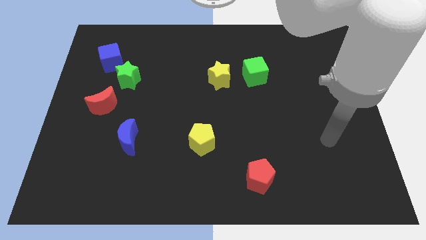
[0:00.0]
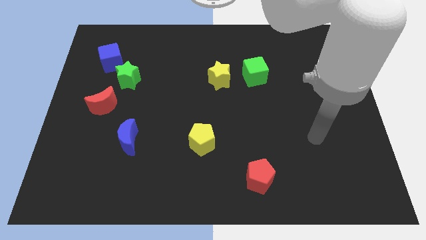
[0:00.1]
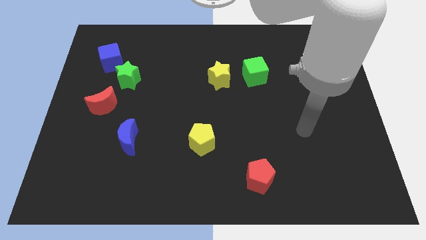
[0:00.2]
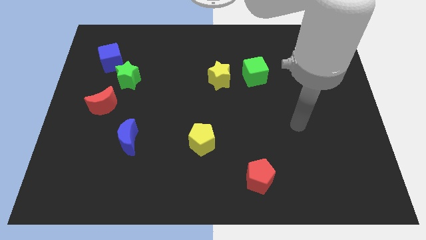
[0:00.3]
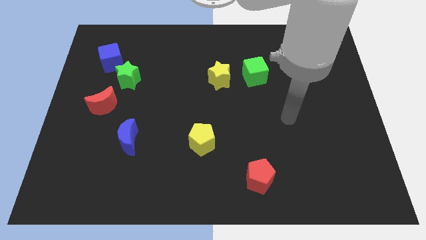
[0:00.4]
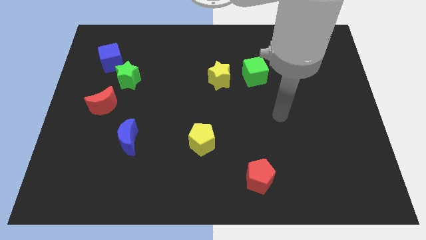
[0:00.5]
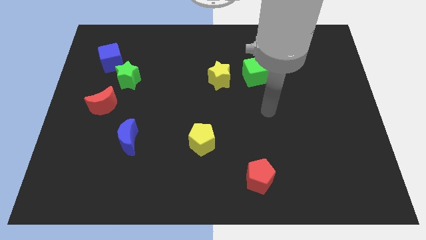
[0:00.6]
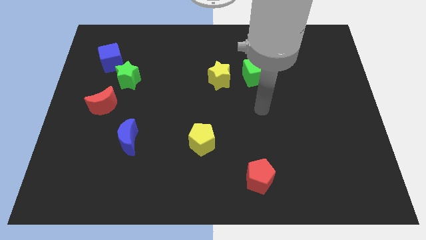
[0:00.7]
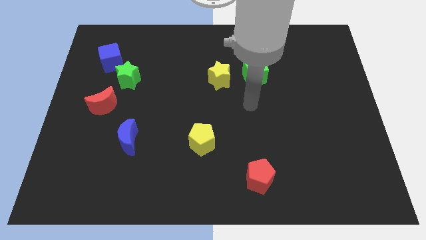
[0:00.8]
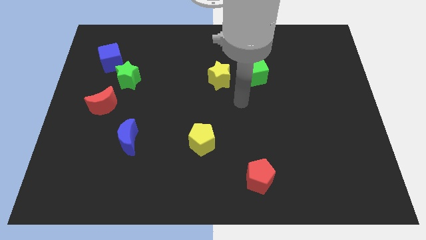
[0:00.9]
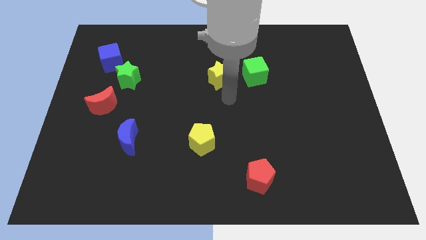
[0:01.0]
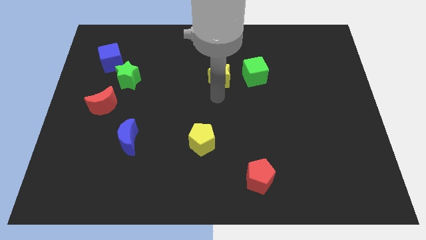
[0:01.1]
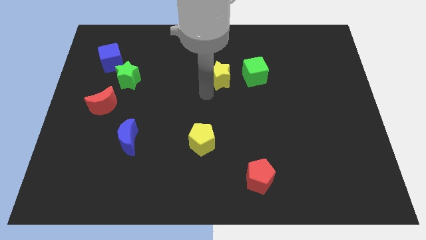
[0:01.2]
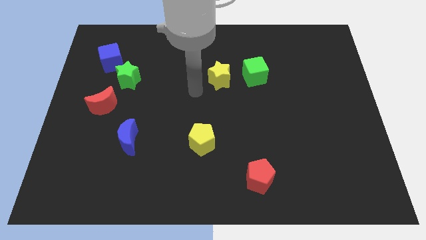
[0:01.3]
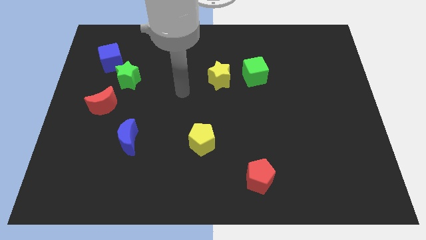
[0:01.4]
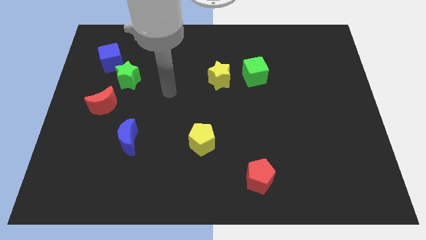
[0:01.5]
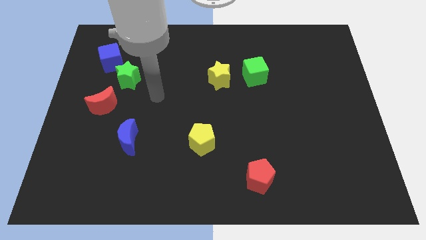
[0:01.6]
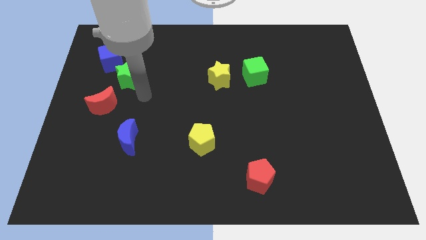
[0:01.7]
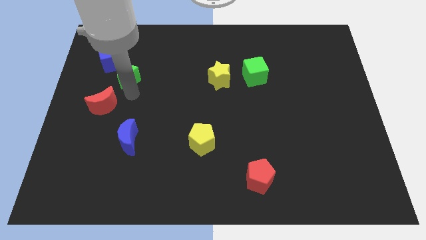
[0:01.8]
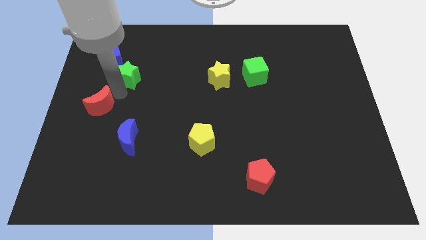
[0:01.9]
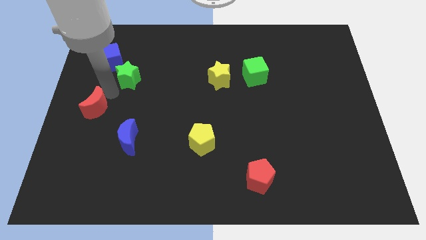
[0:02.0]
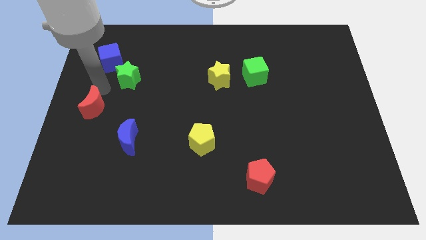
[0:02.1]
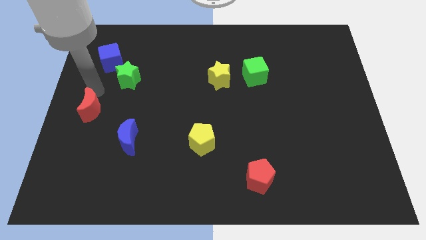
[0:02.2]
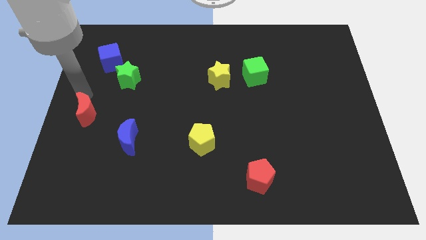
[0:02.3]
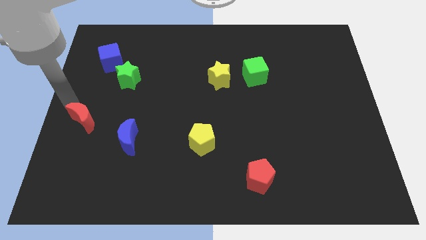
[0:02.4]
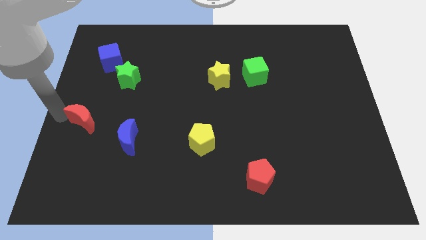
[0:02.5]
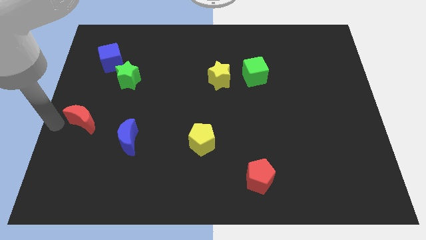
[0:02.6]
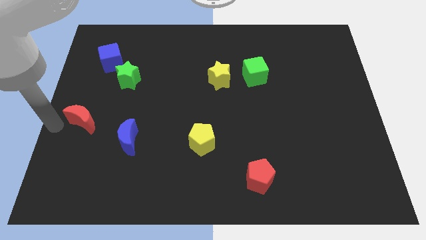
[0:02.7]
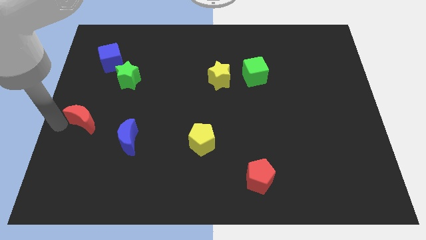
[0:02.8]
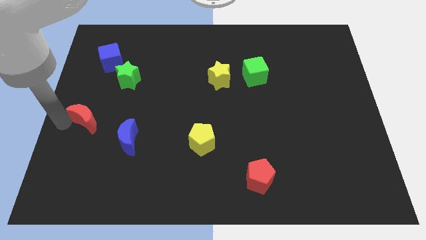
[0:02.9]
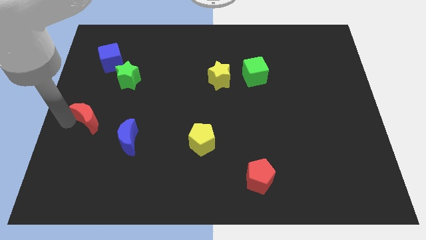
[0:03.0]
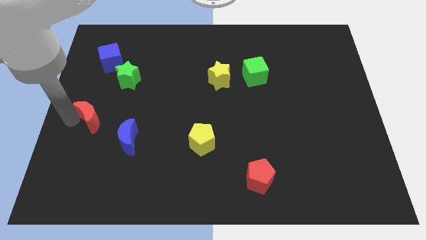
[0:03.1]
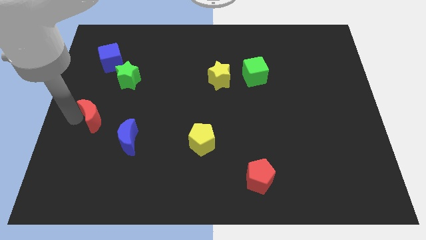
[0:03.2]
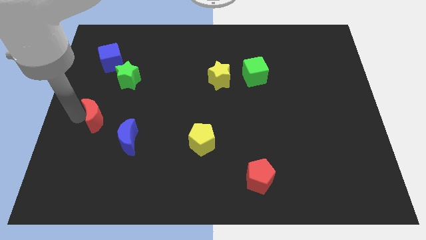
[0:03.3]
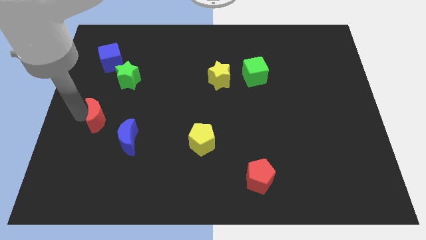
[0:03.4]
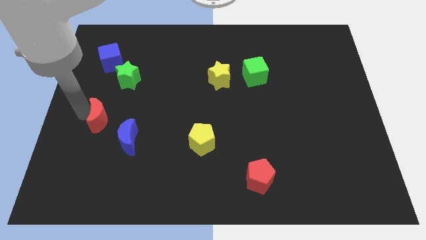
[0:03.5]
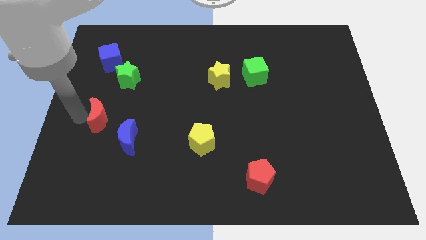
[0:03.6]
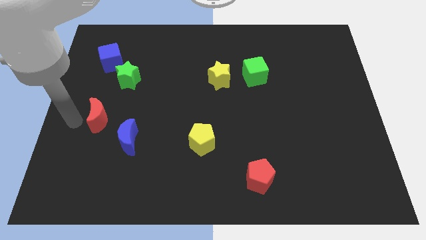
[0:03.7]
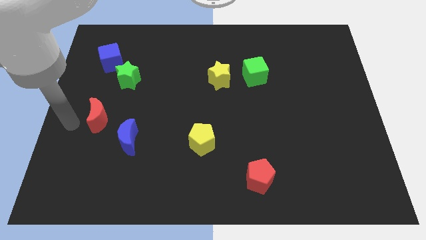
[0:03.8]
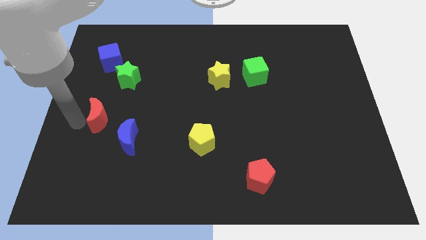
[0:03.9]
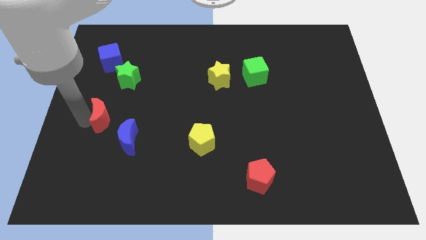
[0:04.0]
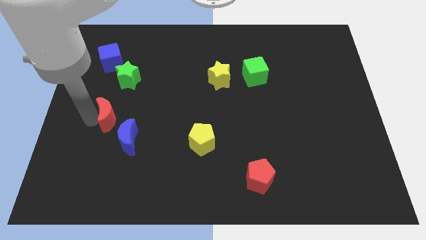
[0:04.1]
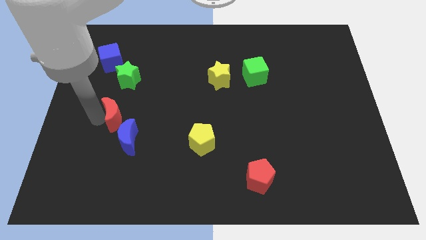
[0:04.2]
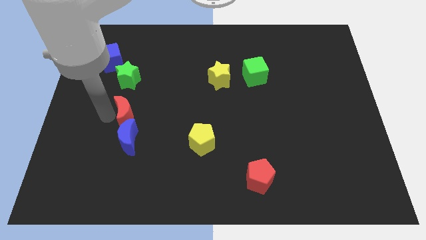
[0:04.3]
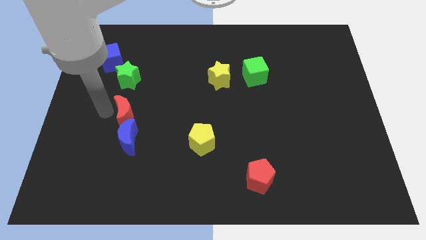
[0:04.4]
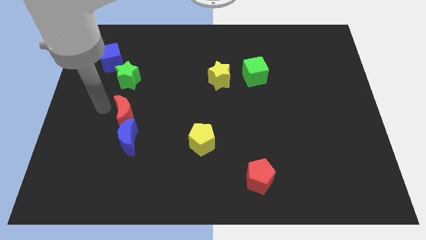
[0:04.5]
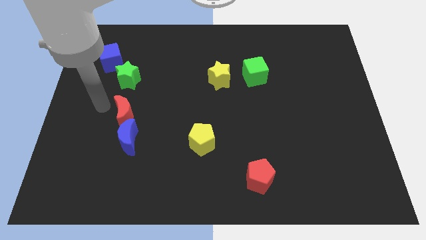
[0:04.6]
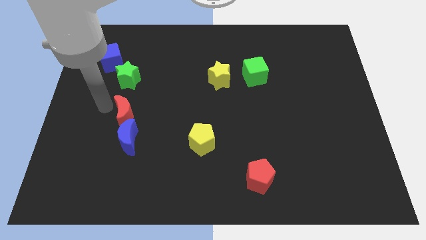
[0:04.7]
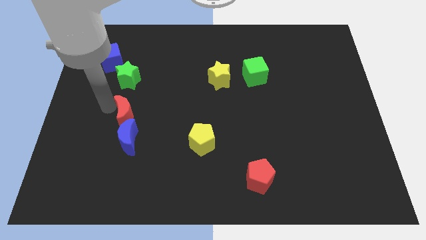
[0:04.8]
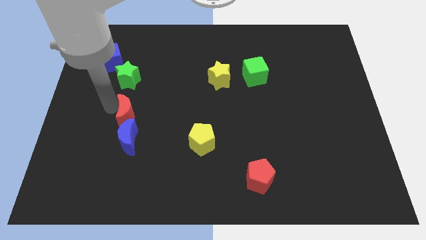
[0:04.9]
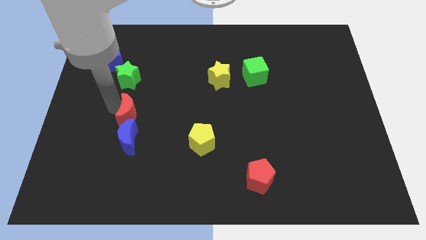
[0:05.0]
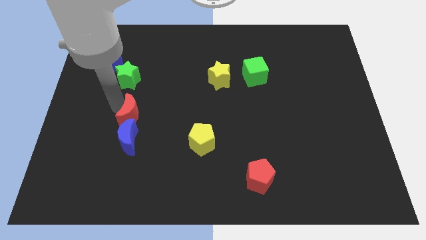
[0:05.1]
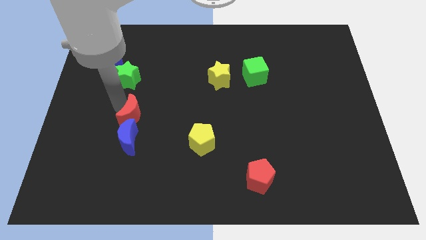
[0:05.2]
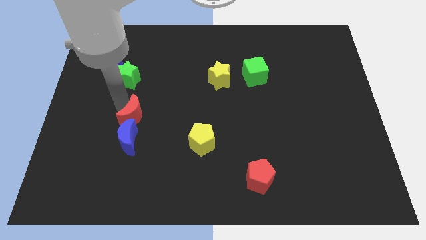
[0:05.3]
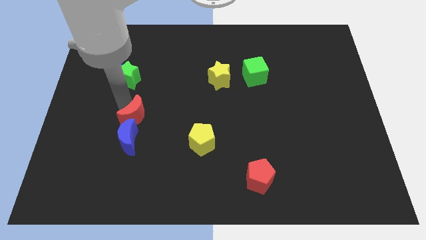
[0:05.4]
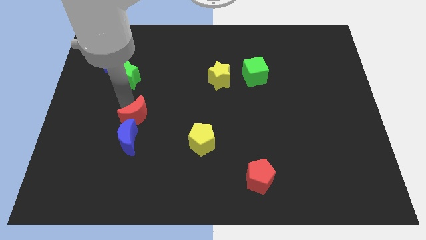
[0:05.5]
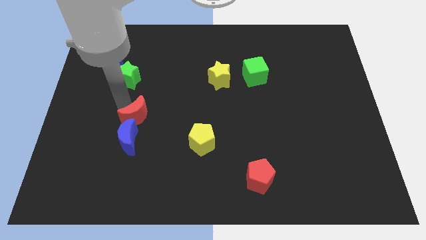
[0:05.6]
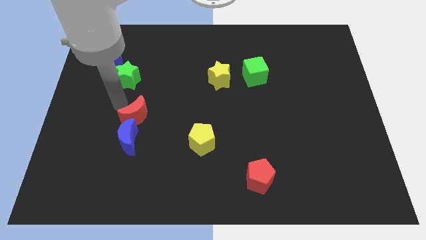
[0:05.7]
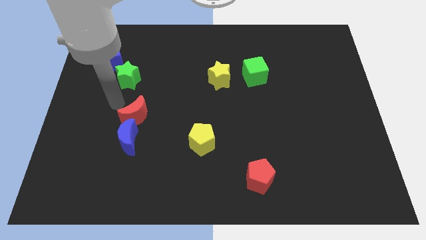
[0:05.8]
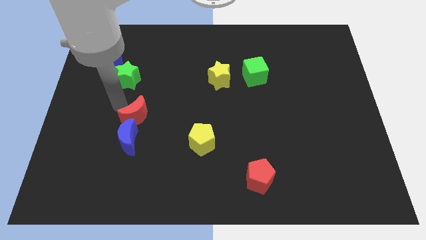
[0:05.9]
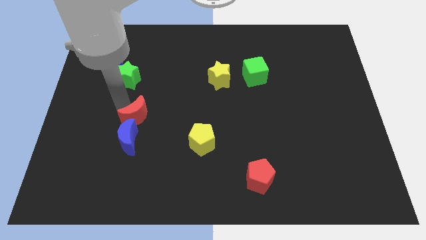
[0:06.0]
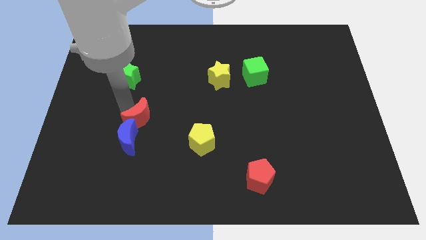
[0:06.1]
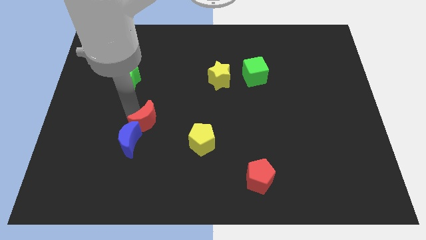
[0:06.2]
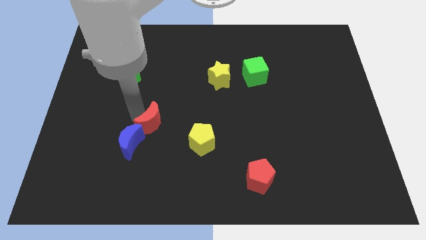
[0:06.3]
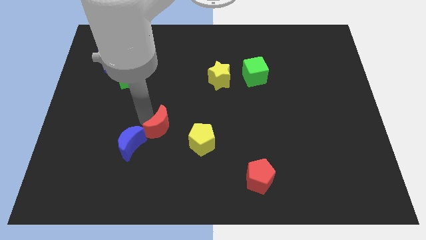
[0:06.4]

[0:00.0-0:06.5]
slide the red moon right of the blue moon

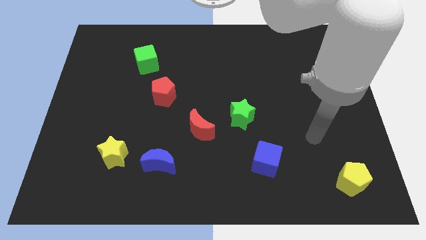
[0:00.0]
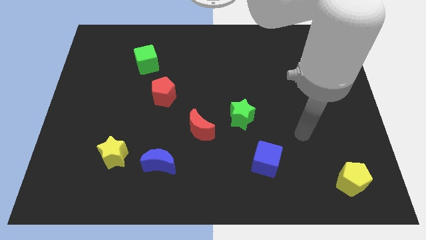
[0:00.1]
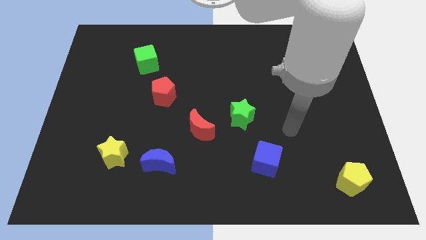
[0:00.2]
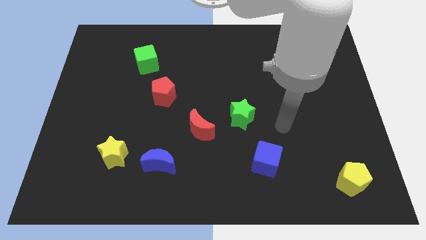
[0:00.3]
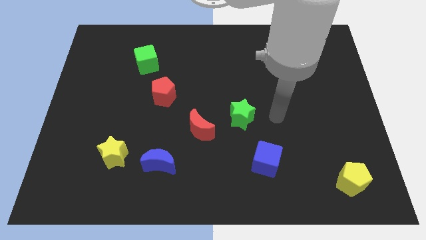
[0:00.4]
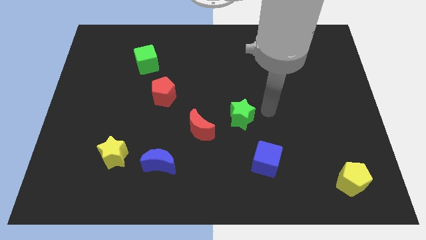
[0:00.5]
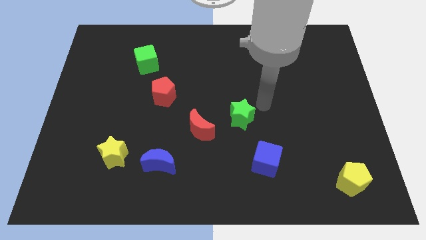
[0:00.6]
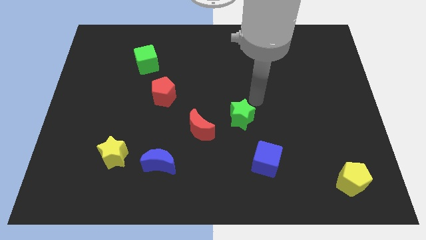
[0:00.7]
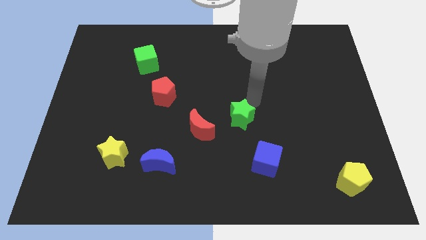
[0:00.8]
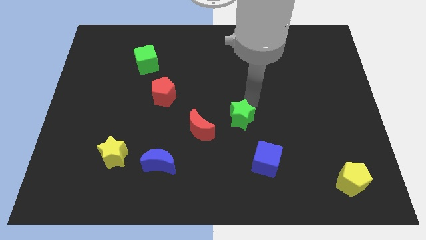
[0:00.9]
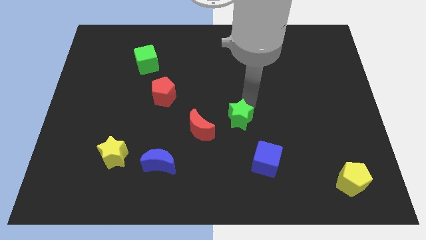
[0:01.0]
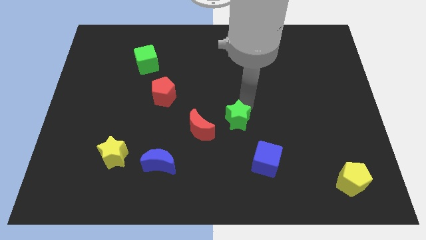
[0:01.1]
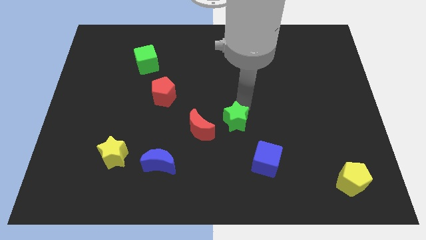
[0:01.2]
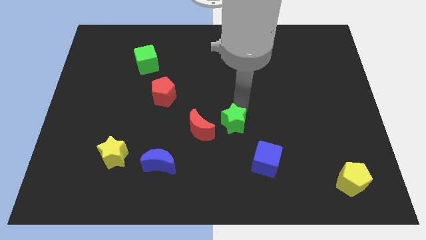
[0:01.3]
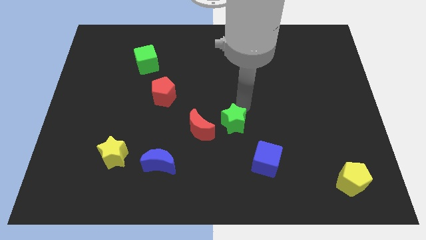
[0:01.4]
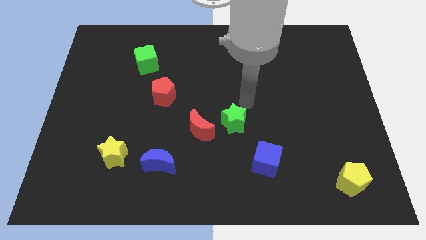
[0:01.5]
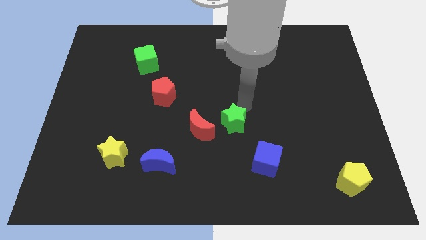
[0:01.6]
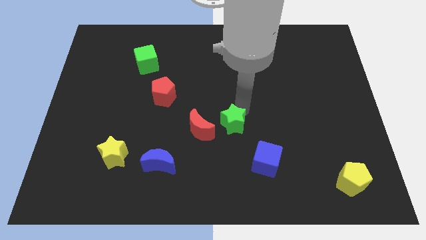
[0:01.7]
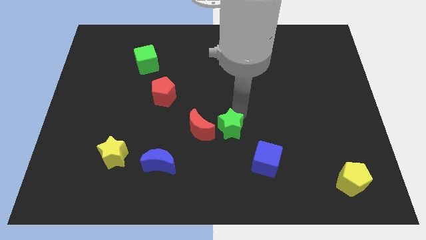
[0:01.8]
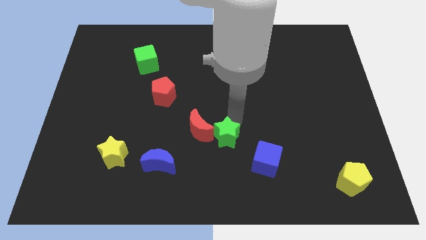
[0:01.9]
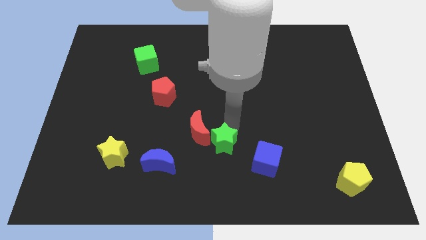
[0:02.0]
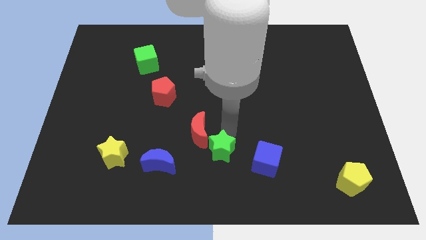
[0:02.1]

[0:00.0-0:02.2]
push the green star to the right side of the blue moon
